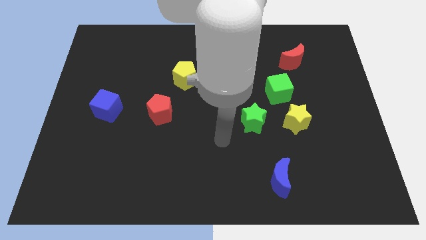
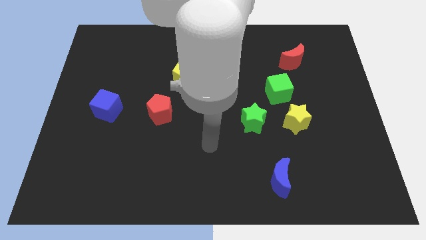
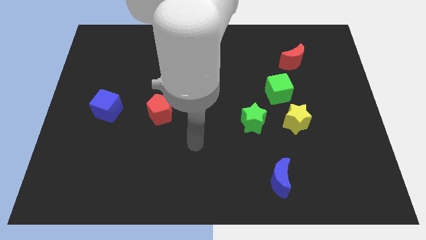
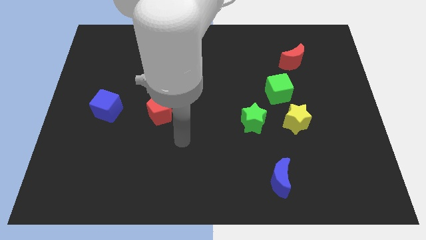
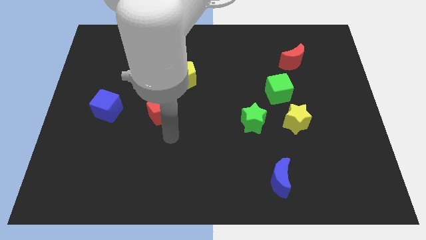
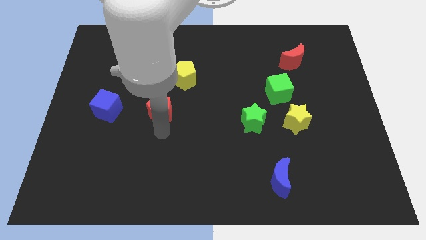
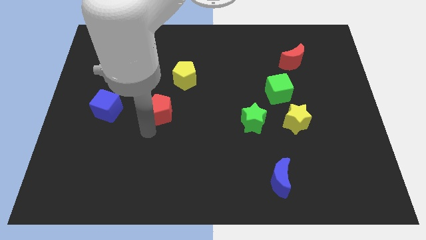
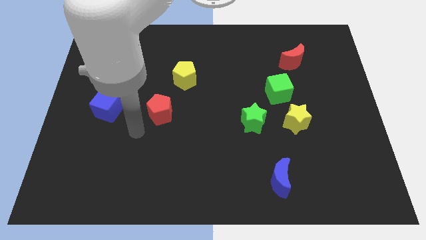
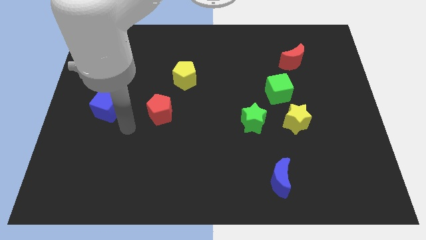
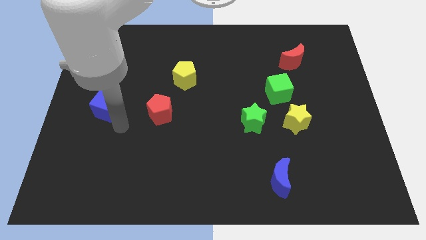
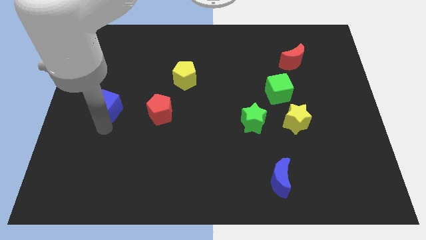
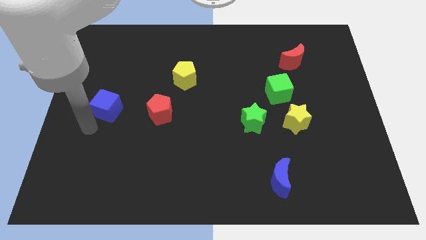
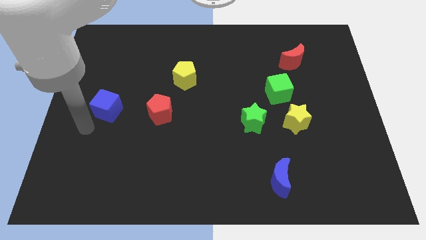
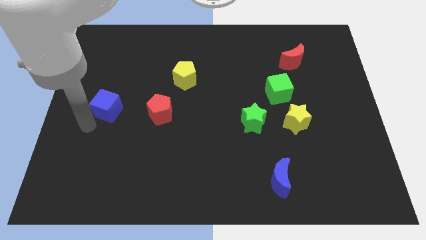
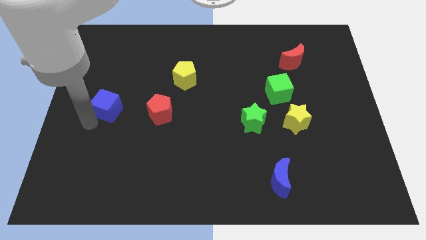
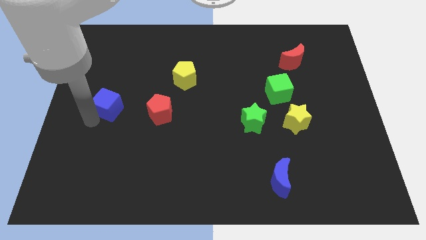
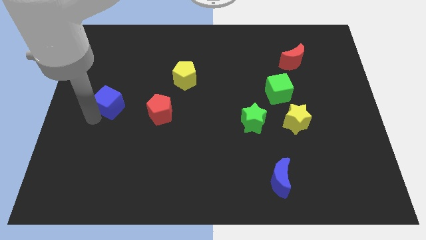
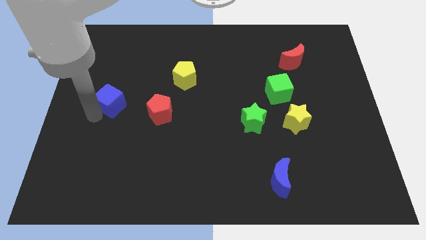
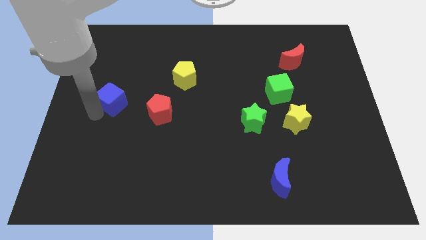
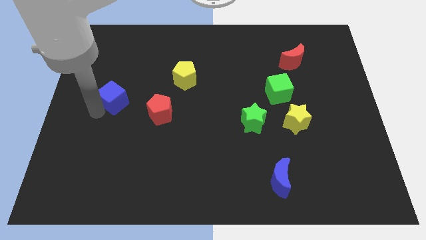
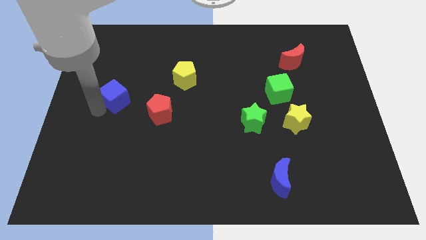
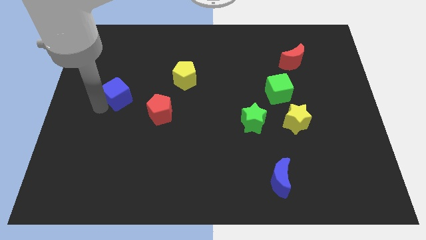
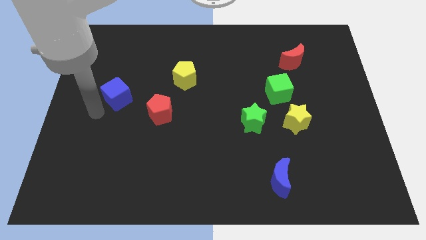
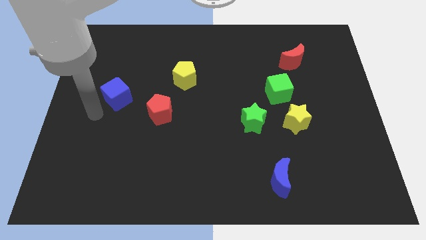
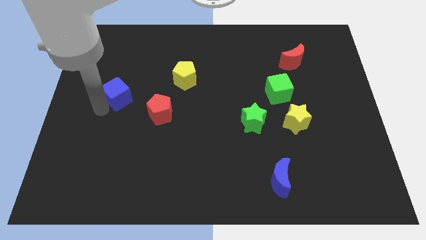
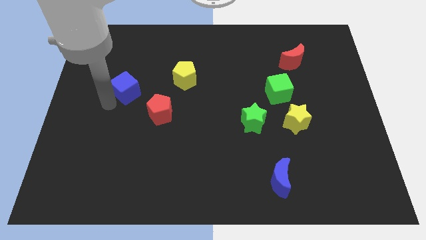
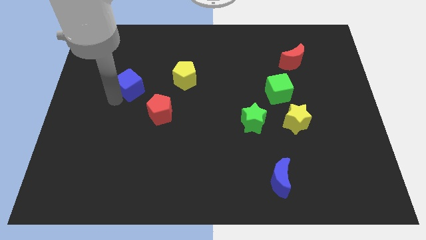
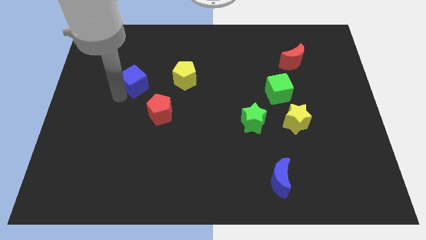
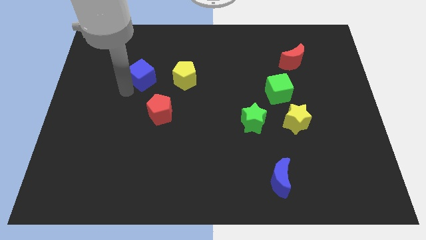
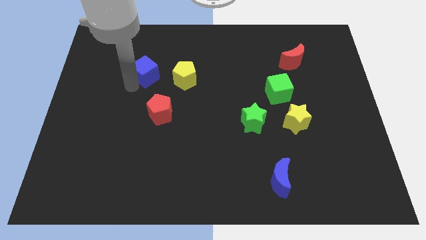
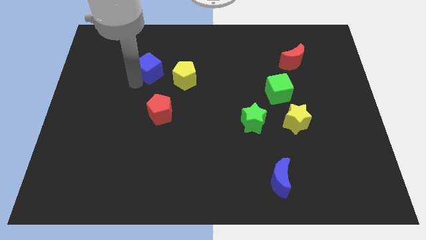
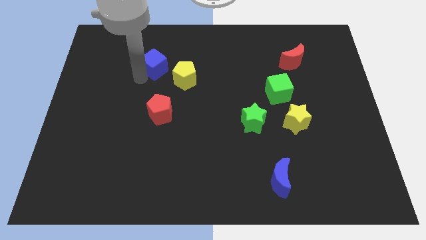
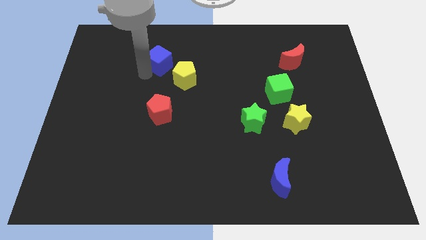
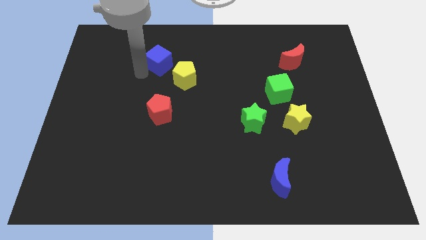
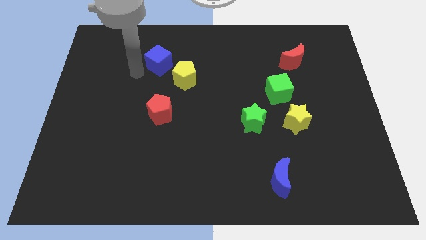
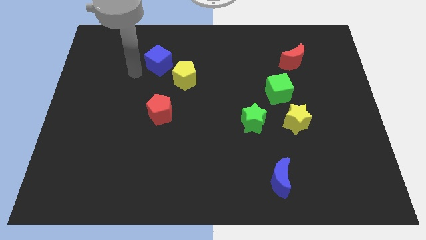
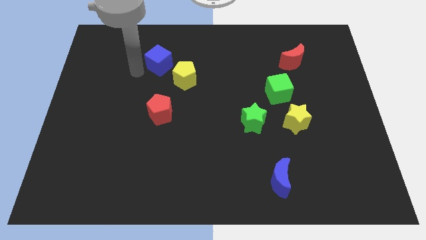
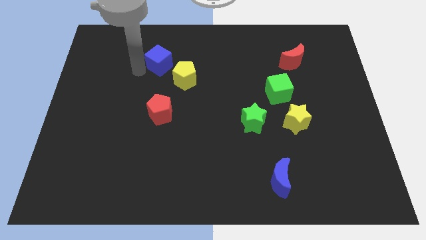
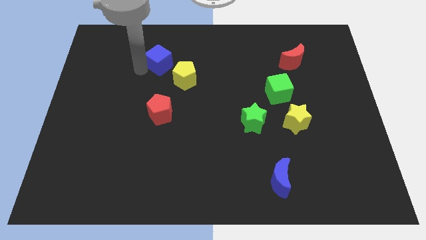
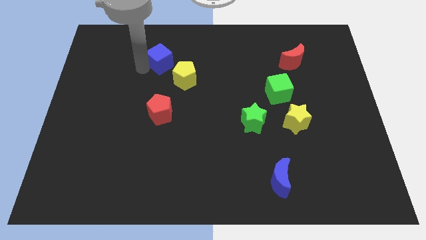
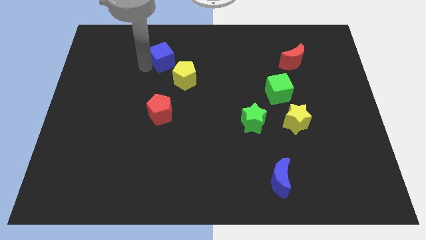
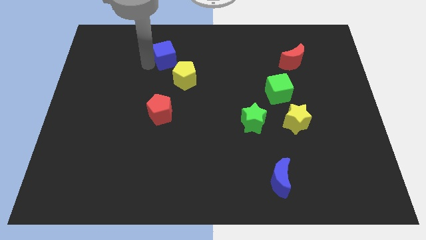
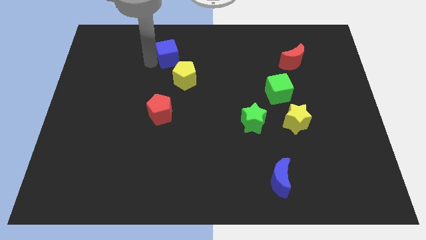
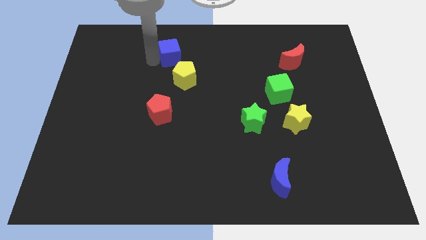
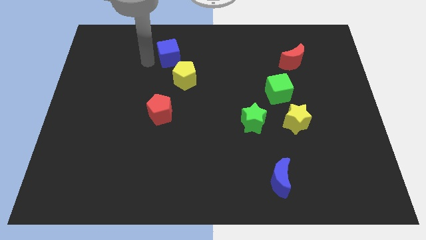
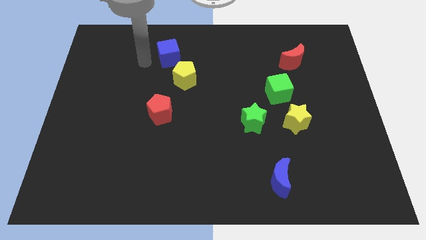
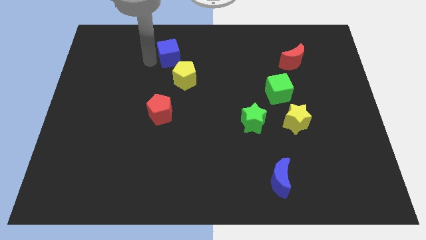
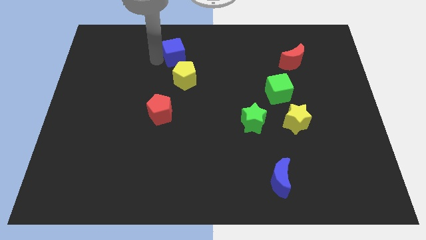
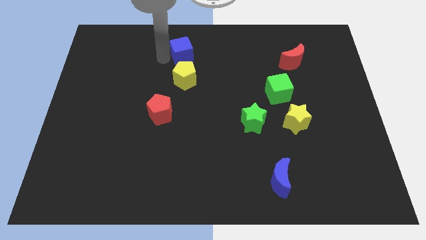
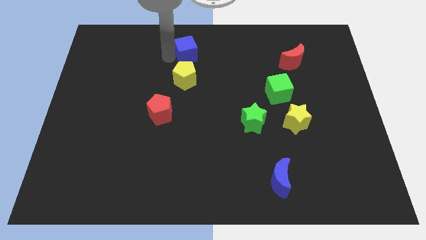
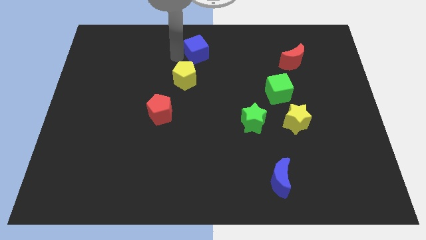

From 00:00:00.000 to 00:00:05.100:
slide the blue cube to the top side

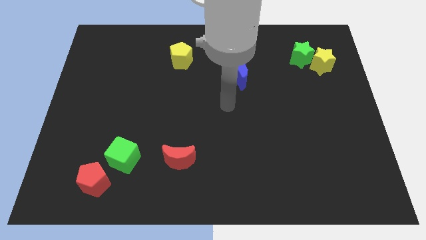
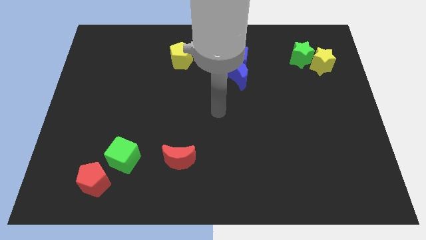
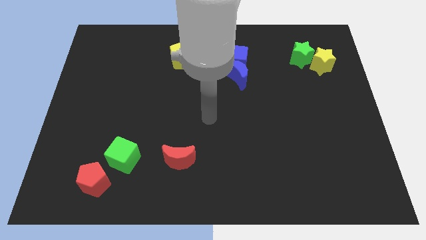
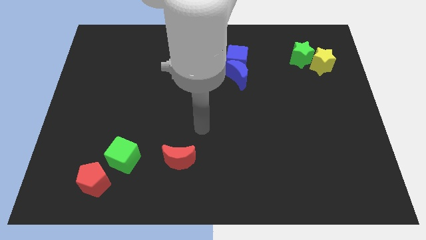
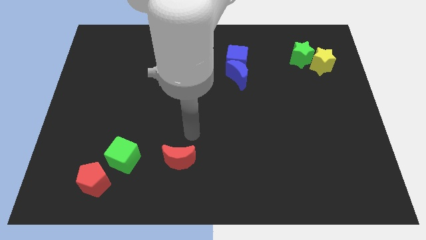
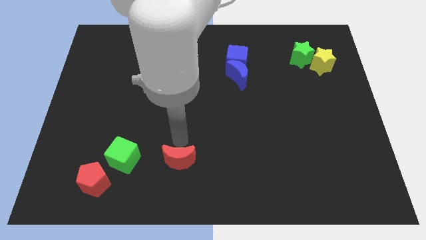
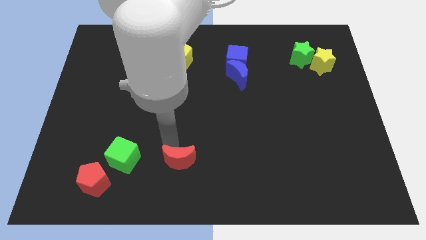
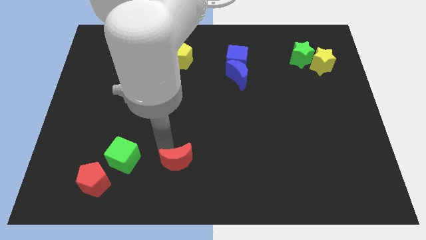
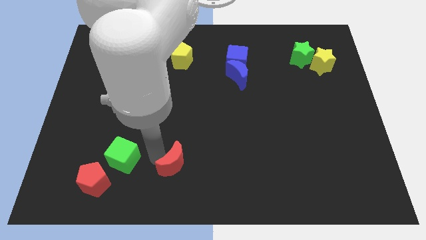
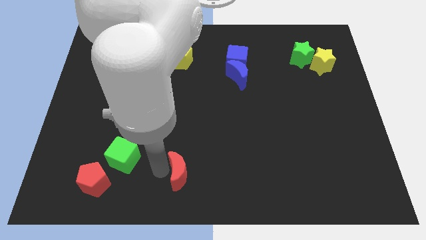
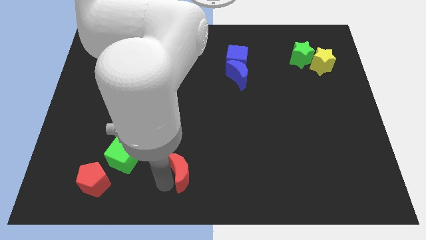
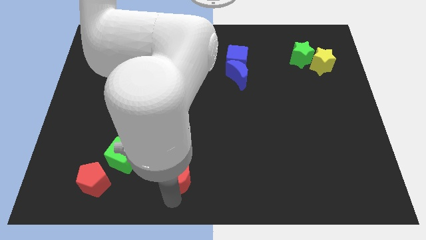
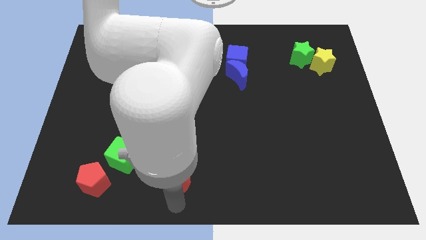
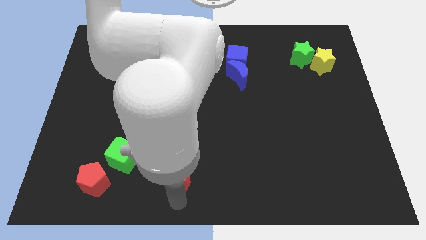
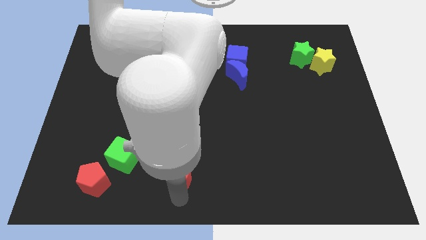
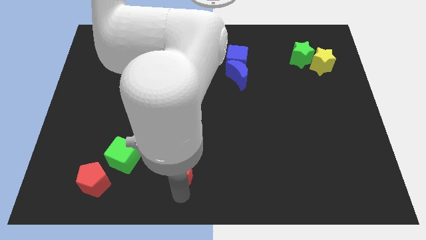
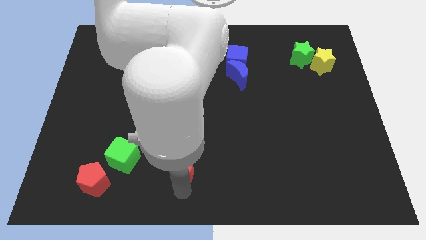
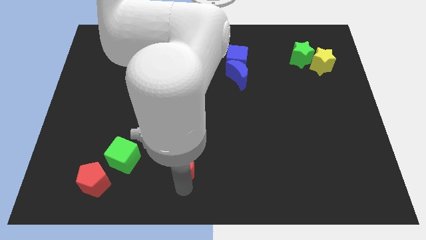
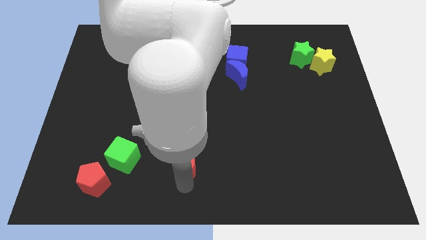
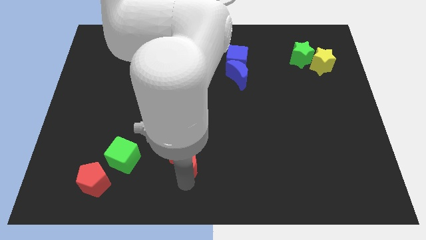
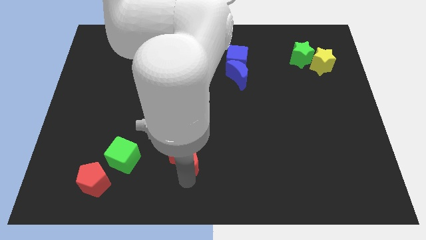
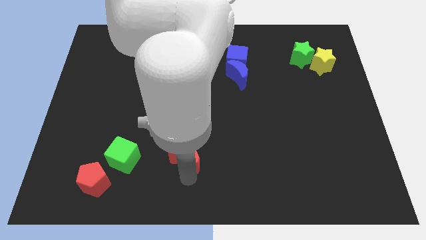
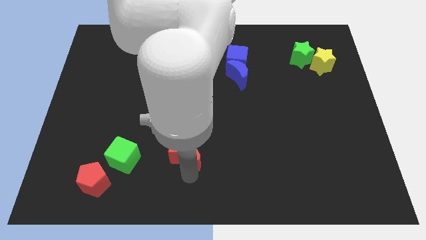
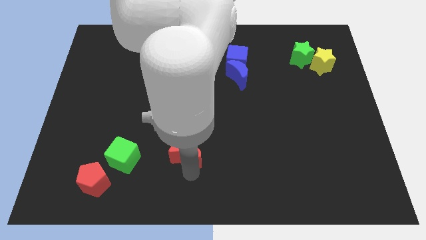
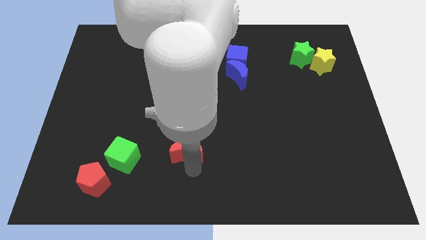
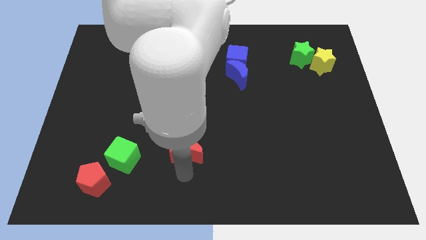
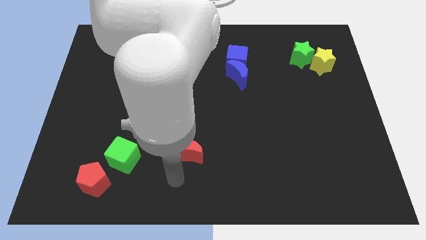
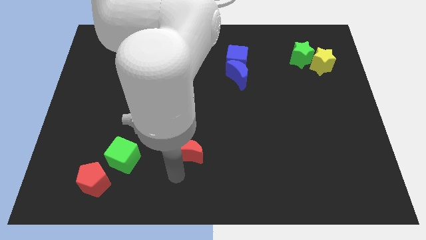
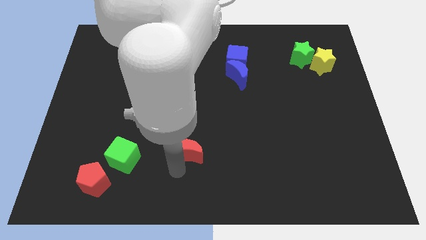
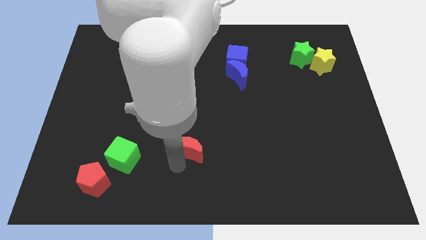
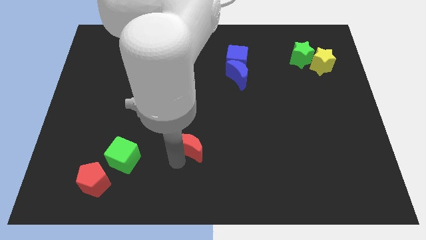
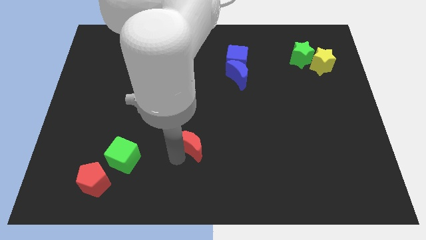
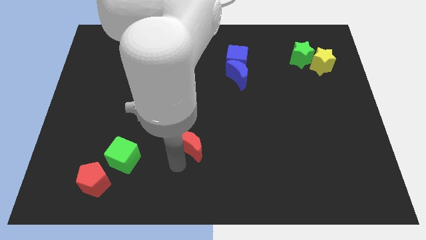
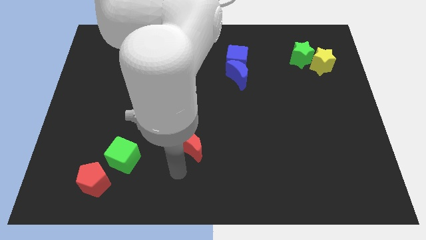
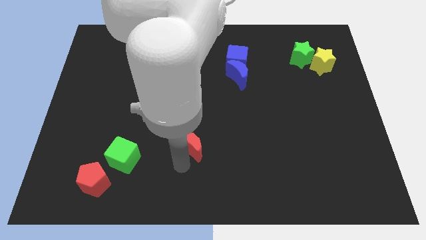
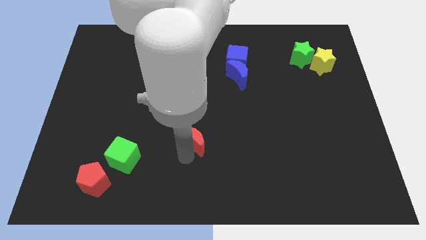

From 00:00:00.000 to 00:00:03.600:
slide the red moon to the middle of the board
